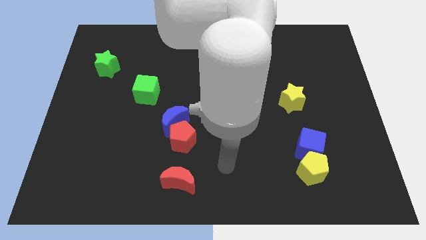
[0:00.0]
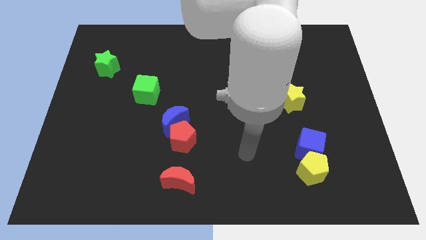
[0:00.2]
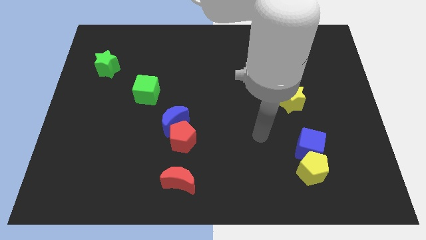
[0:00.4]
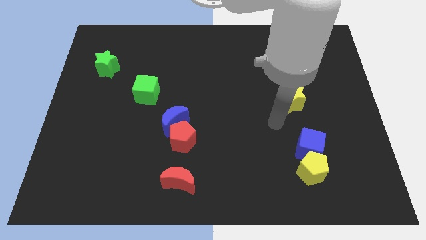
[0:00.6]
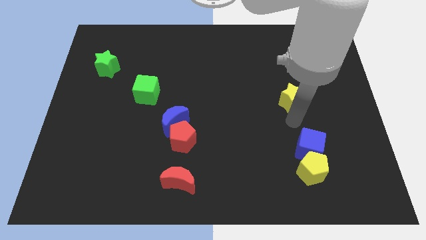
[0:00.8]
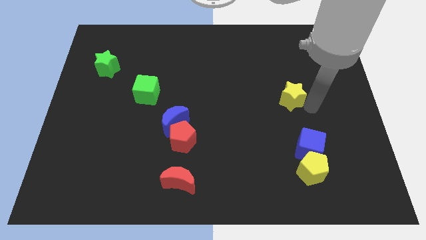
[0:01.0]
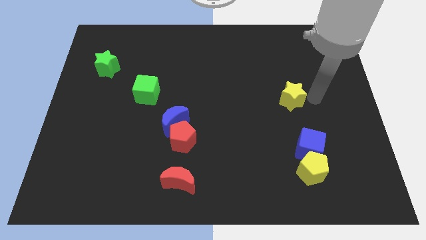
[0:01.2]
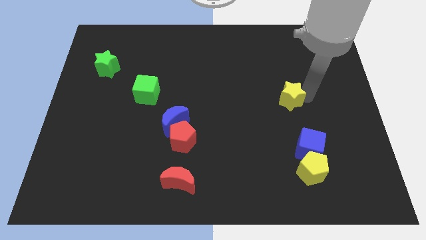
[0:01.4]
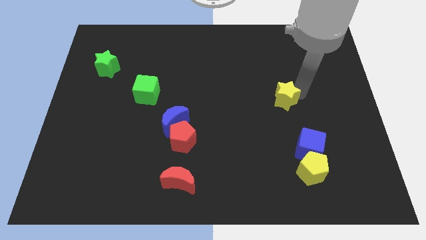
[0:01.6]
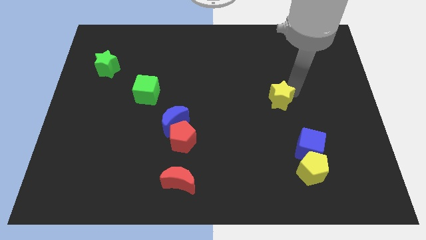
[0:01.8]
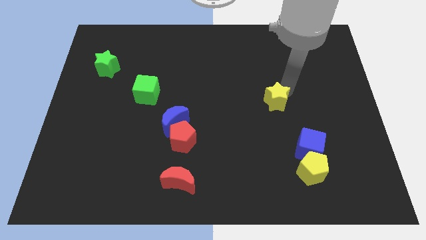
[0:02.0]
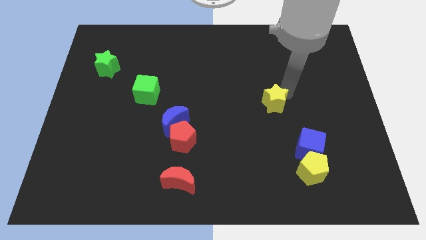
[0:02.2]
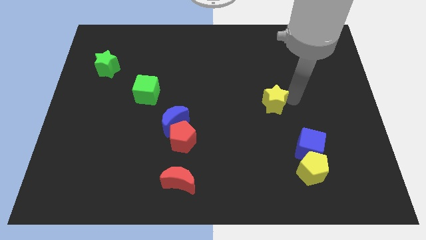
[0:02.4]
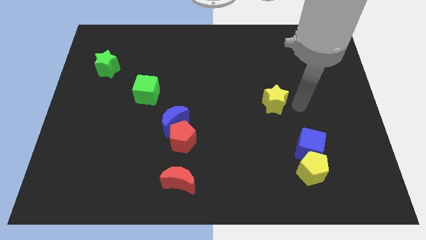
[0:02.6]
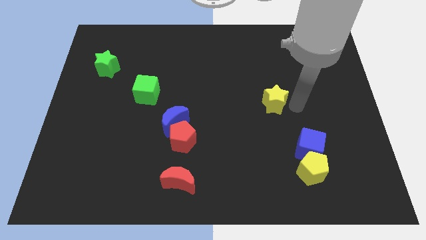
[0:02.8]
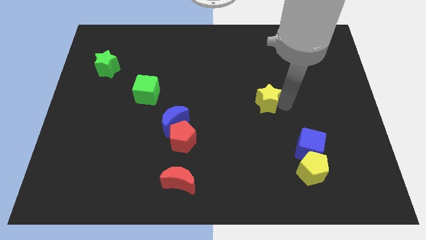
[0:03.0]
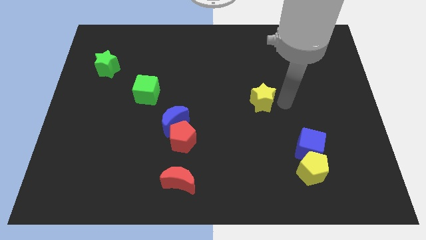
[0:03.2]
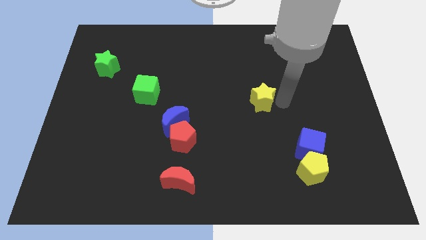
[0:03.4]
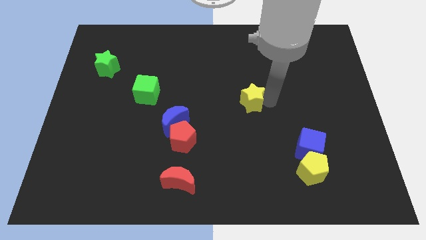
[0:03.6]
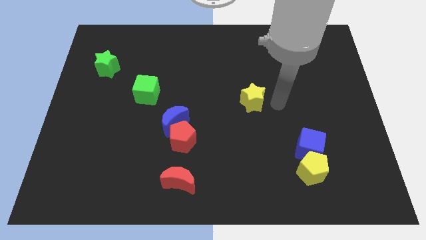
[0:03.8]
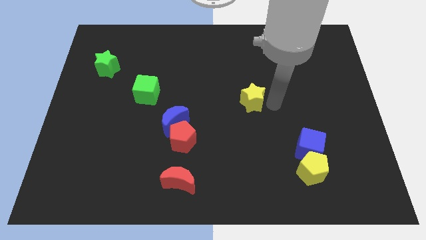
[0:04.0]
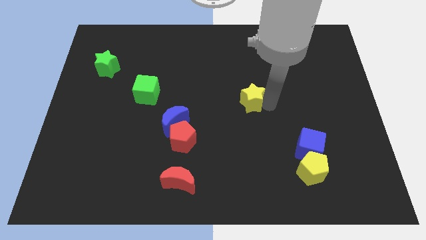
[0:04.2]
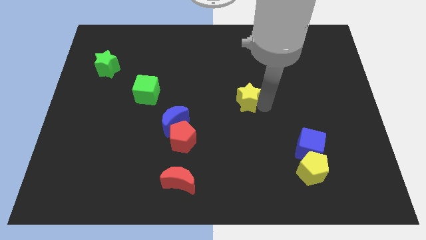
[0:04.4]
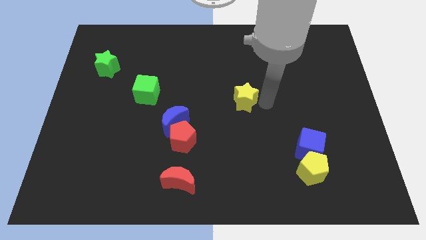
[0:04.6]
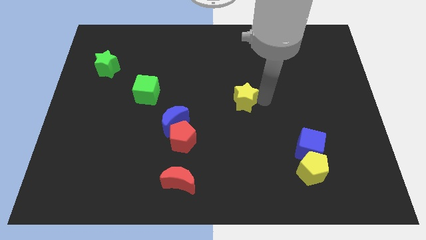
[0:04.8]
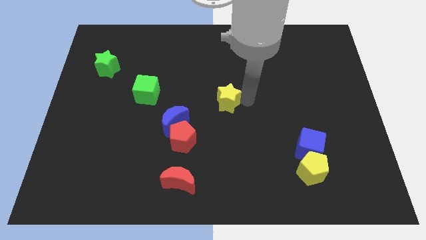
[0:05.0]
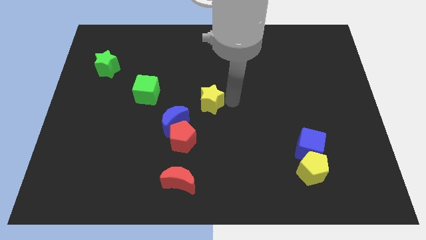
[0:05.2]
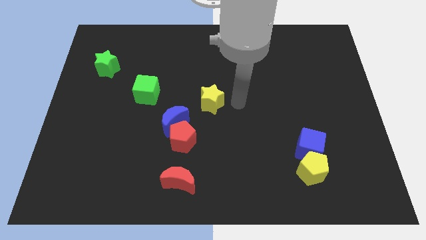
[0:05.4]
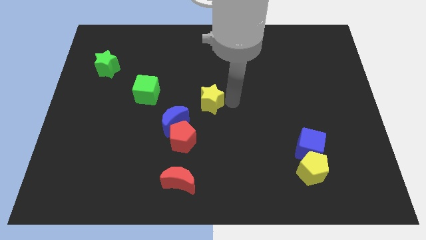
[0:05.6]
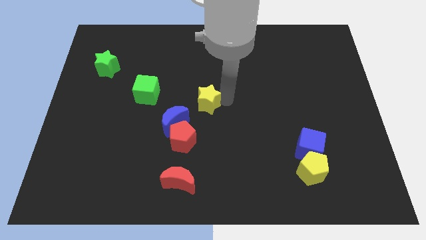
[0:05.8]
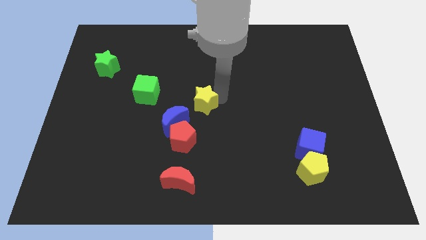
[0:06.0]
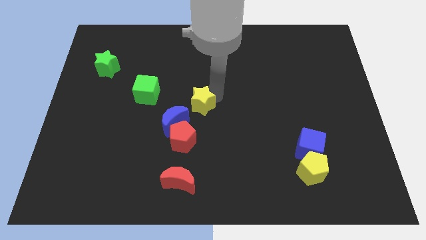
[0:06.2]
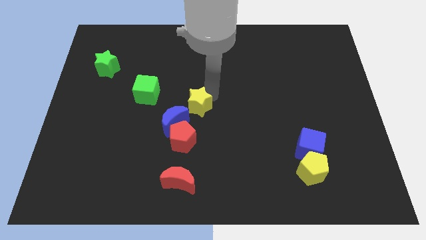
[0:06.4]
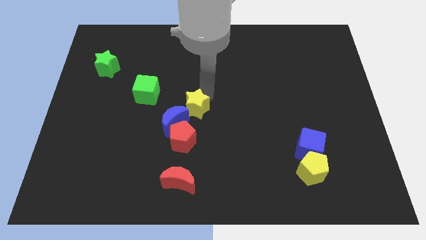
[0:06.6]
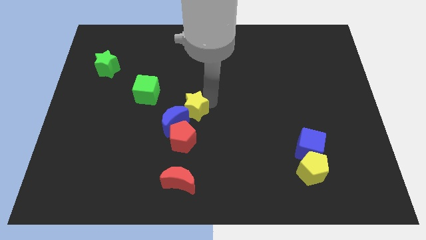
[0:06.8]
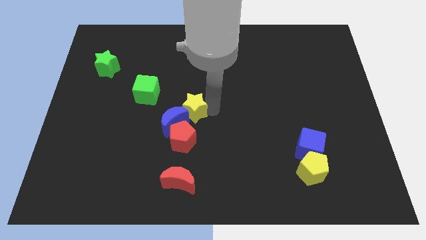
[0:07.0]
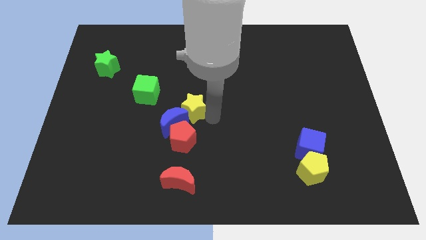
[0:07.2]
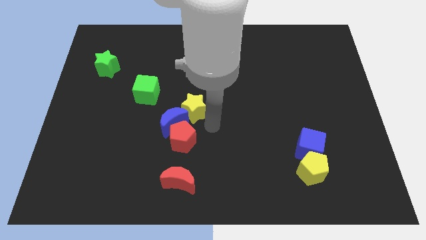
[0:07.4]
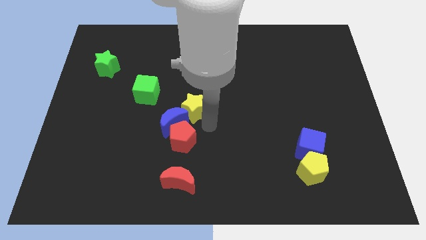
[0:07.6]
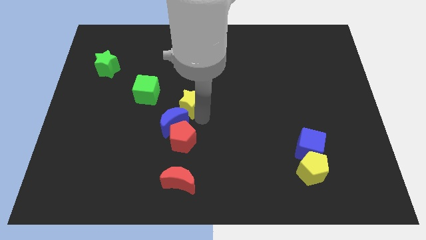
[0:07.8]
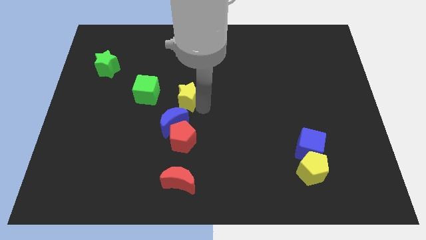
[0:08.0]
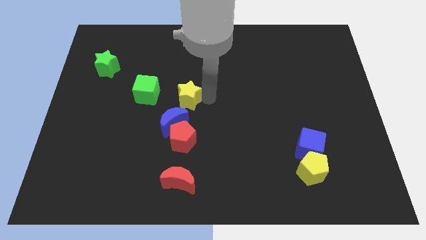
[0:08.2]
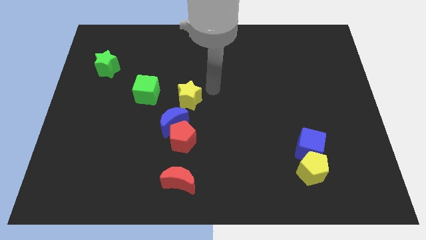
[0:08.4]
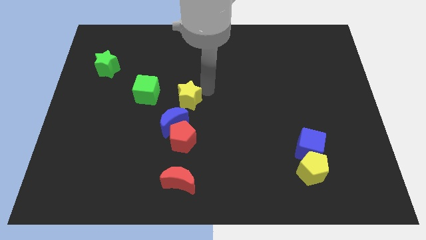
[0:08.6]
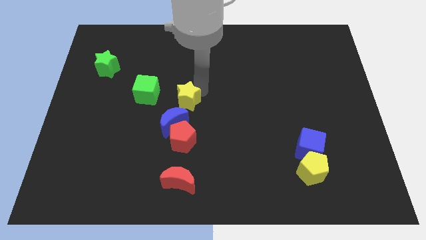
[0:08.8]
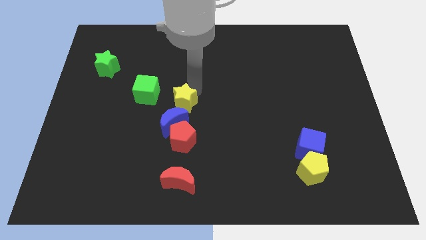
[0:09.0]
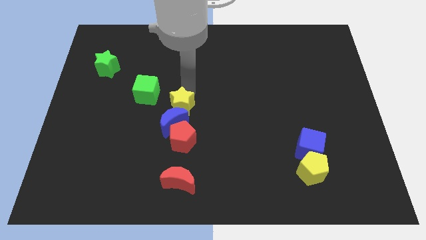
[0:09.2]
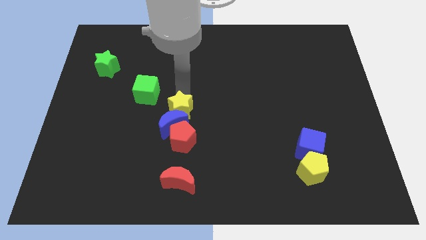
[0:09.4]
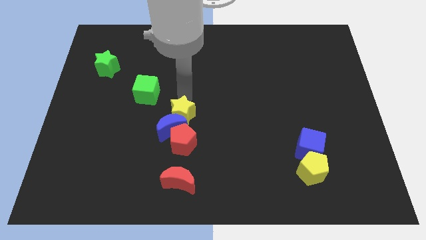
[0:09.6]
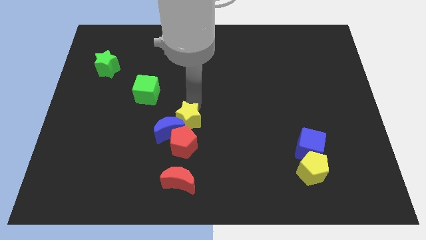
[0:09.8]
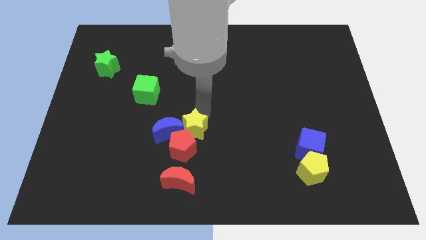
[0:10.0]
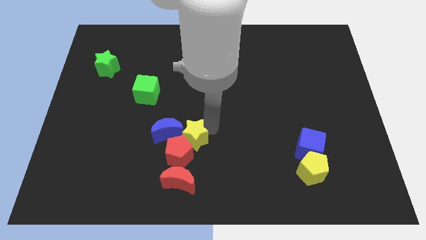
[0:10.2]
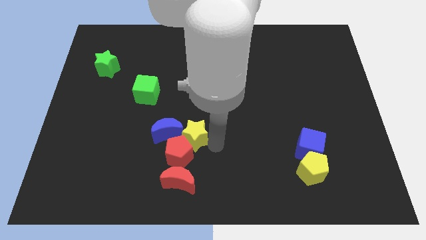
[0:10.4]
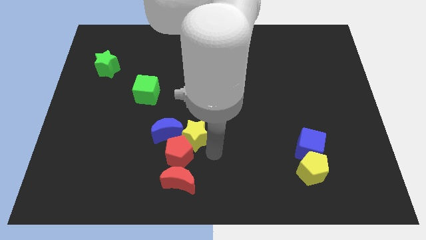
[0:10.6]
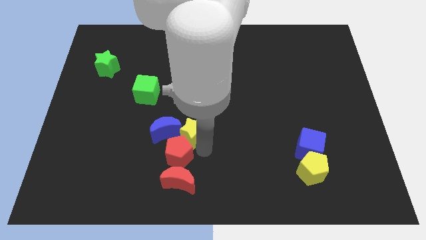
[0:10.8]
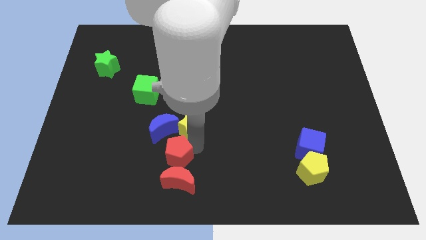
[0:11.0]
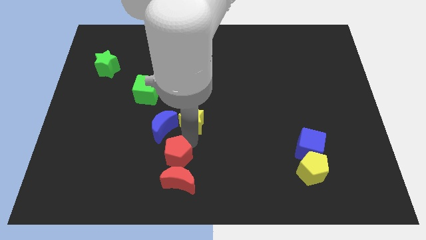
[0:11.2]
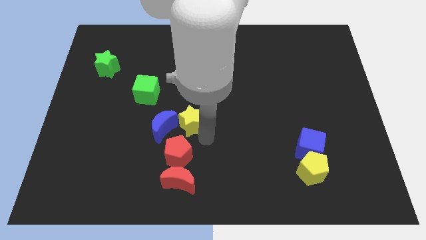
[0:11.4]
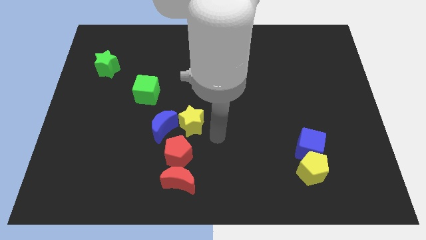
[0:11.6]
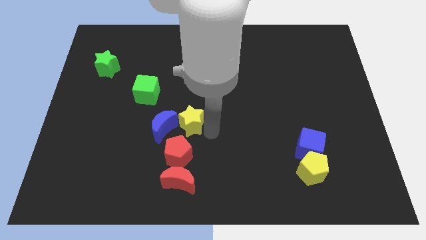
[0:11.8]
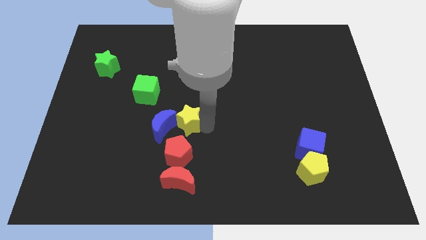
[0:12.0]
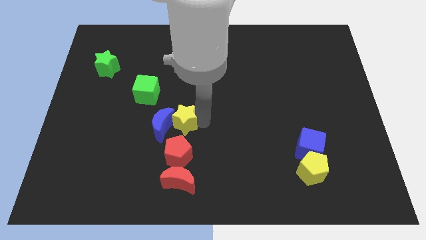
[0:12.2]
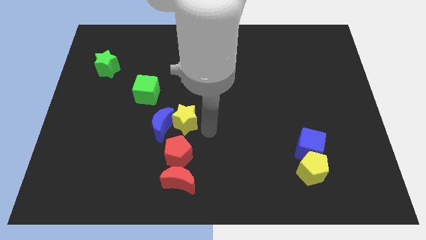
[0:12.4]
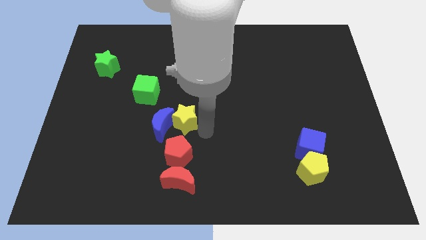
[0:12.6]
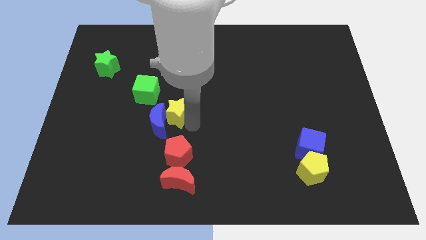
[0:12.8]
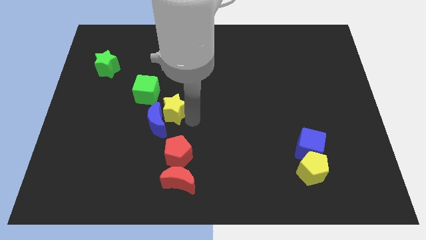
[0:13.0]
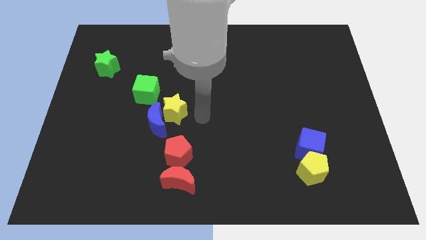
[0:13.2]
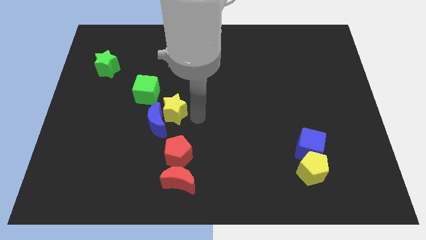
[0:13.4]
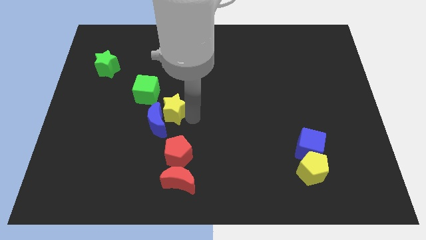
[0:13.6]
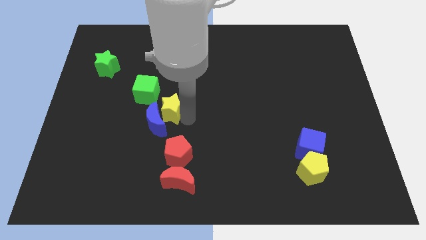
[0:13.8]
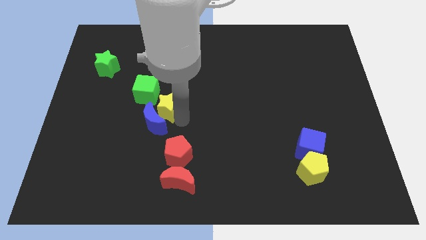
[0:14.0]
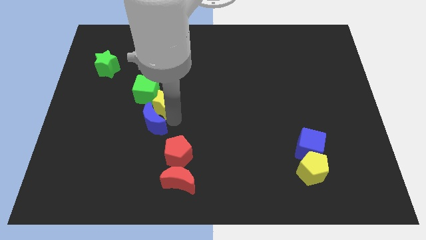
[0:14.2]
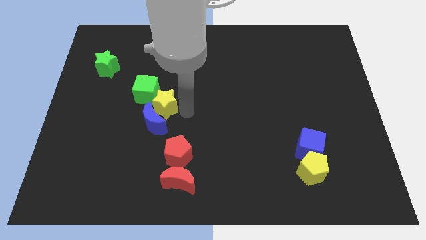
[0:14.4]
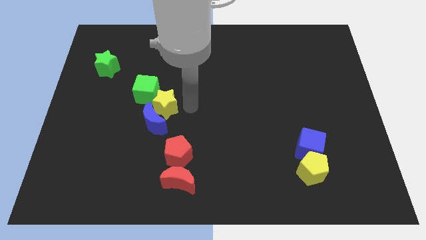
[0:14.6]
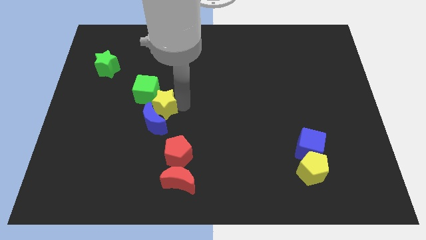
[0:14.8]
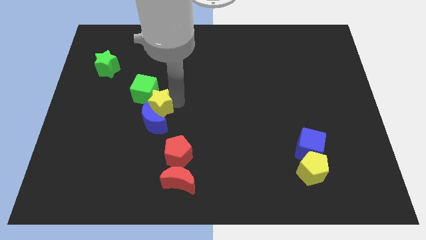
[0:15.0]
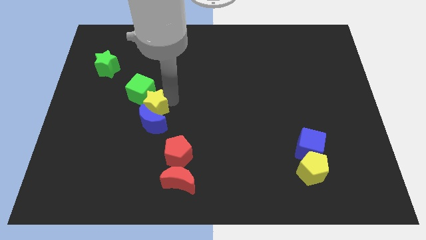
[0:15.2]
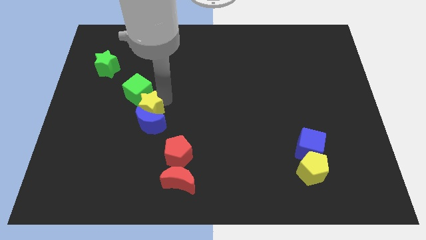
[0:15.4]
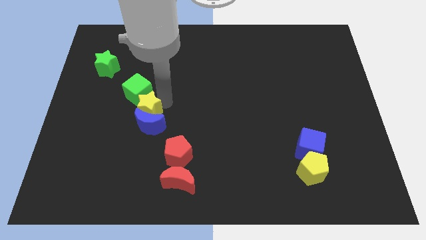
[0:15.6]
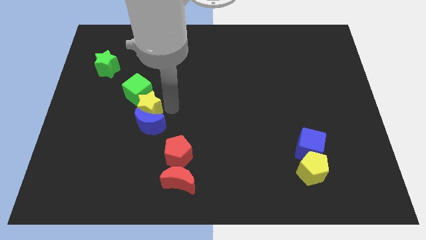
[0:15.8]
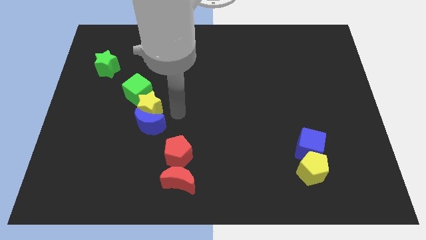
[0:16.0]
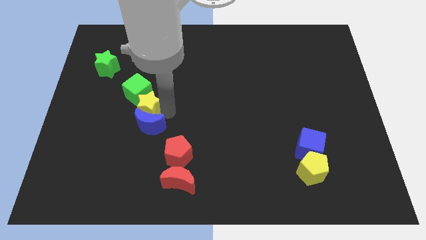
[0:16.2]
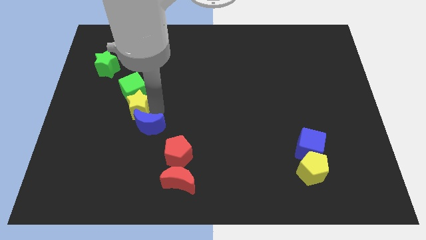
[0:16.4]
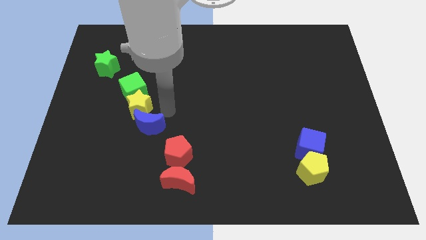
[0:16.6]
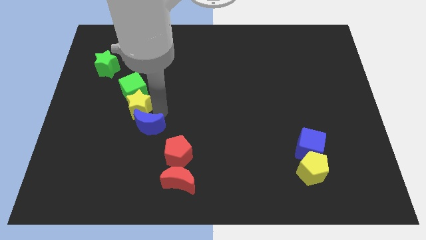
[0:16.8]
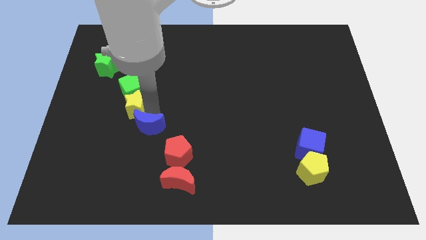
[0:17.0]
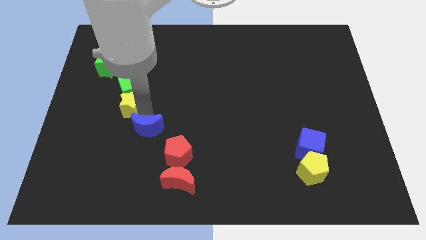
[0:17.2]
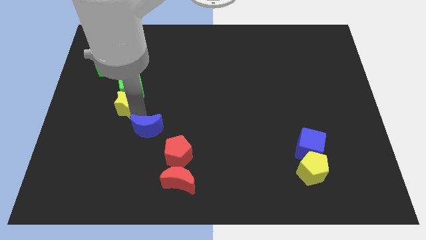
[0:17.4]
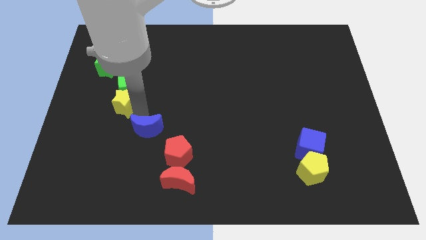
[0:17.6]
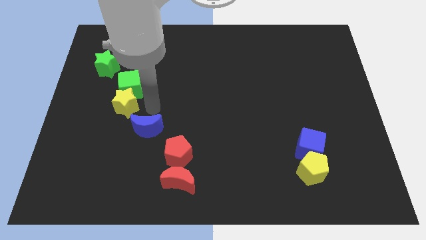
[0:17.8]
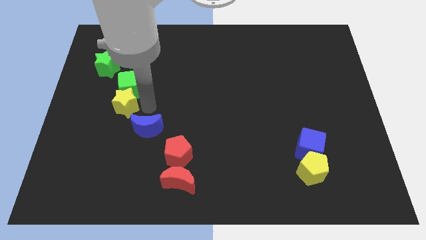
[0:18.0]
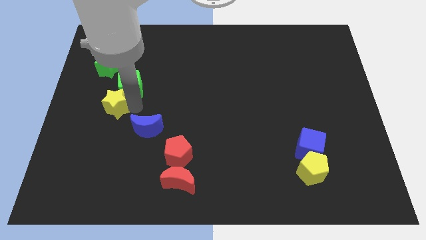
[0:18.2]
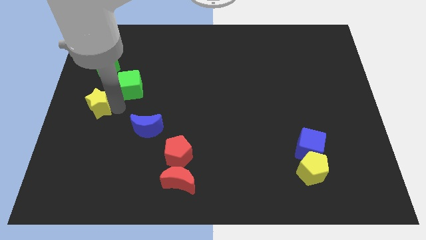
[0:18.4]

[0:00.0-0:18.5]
put the yellow star to the left side
